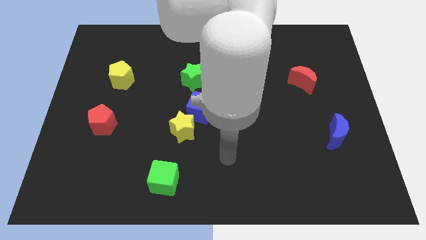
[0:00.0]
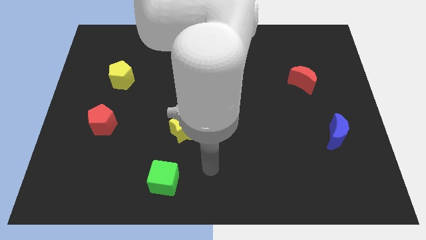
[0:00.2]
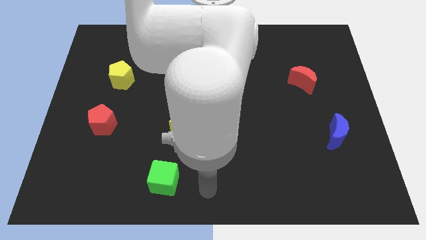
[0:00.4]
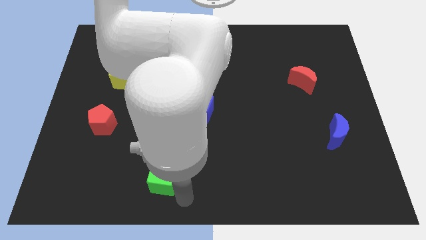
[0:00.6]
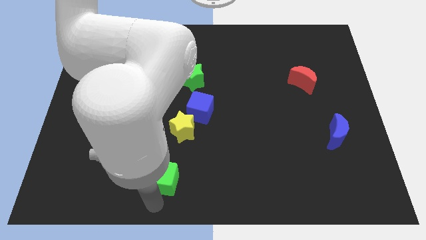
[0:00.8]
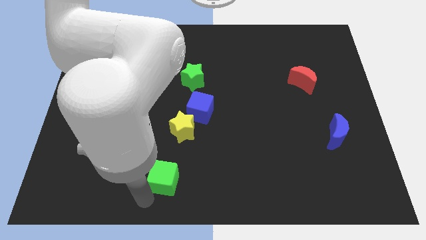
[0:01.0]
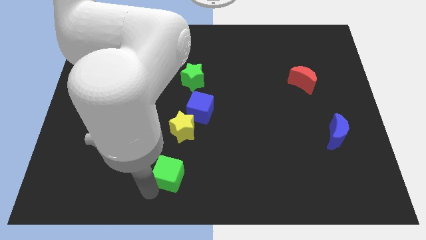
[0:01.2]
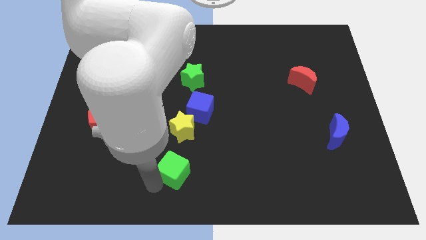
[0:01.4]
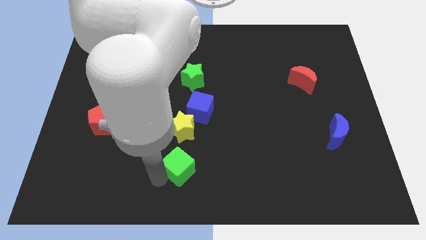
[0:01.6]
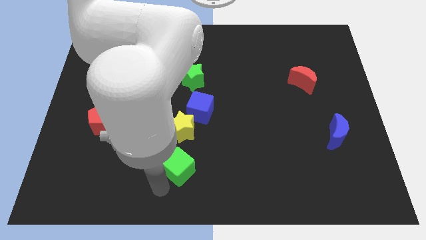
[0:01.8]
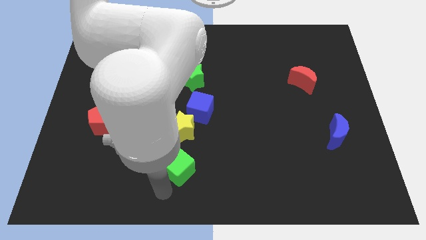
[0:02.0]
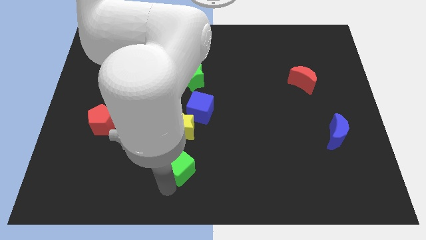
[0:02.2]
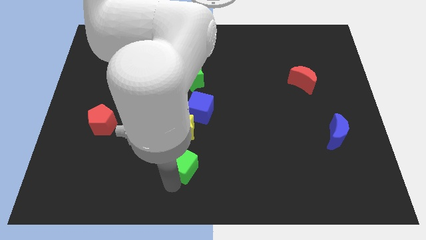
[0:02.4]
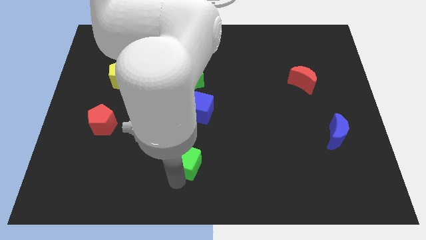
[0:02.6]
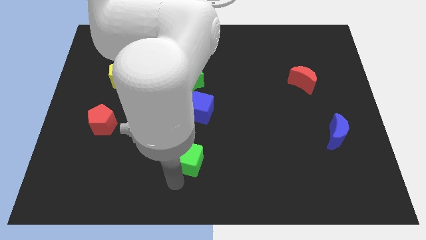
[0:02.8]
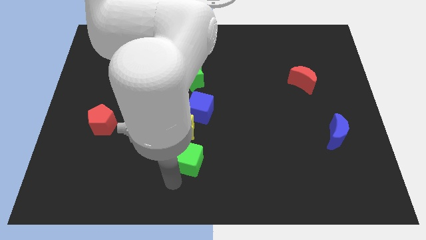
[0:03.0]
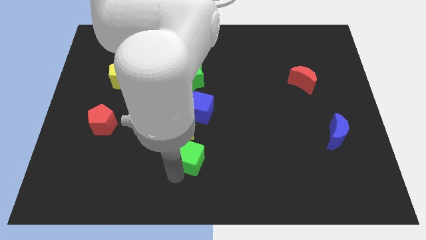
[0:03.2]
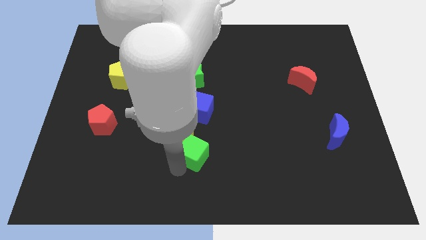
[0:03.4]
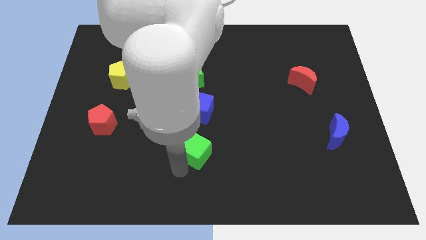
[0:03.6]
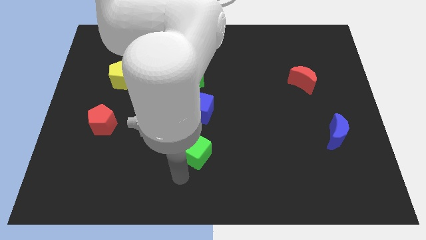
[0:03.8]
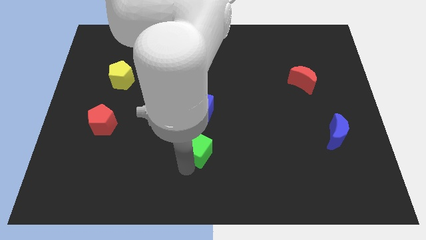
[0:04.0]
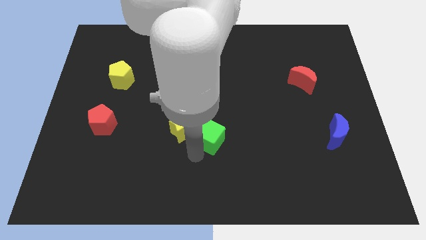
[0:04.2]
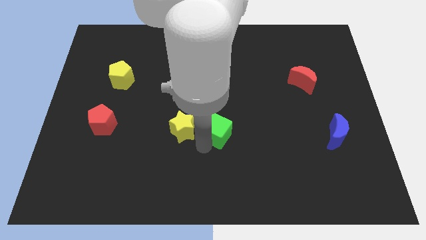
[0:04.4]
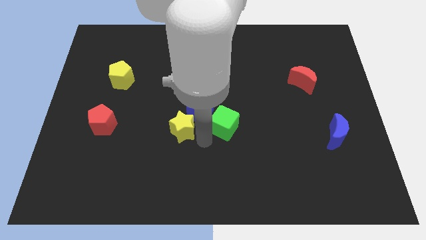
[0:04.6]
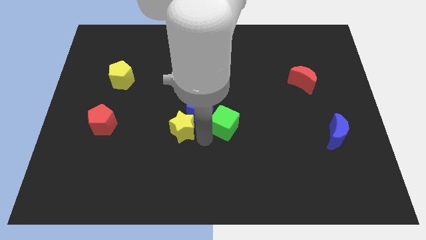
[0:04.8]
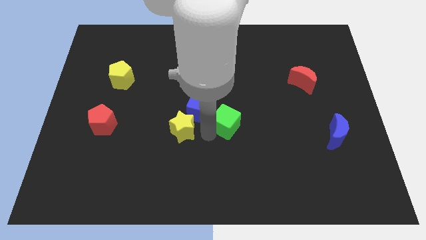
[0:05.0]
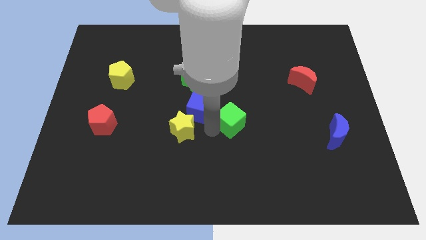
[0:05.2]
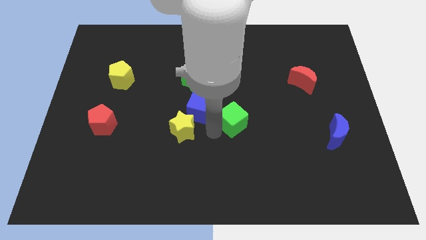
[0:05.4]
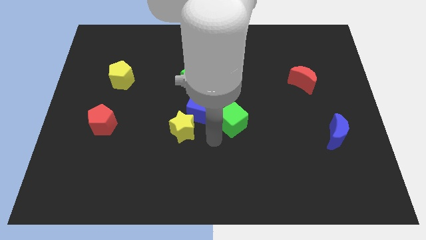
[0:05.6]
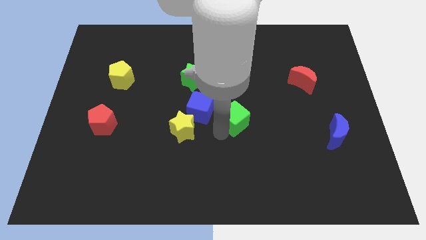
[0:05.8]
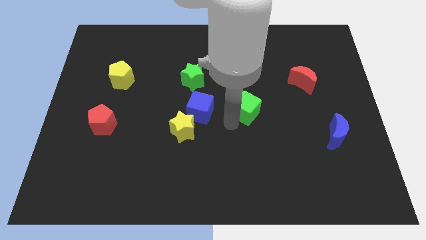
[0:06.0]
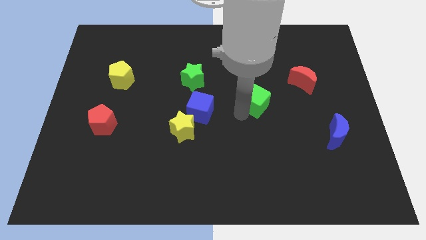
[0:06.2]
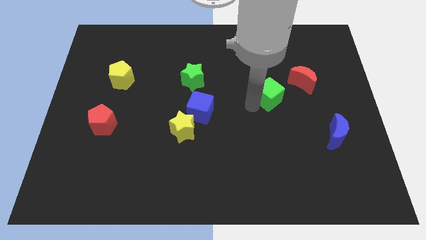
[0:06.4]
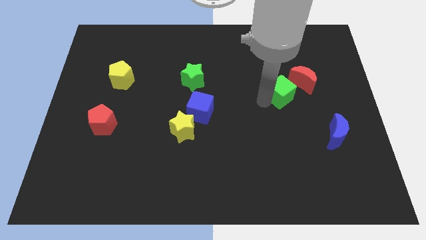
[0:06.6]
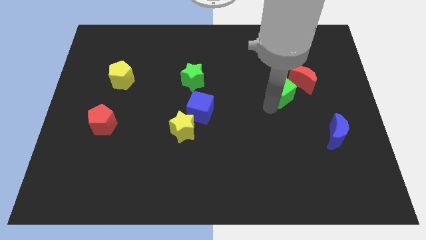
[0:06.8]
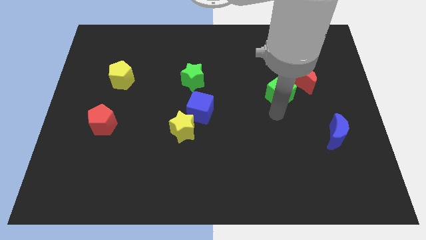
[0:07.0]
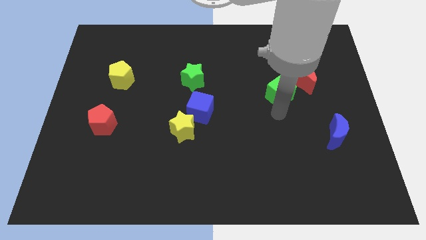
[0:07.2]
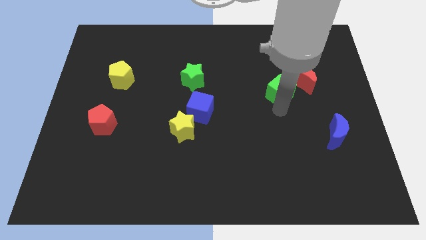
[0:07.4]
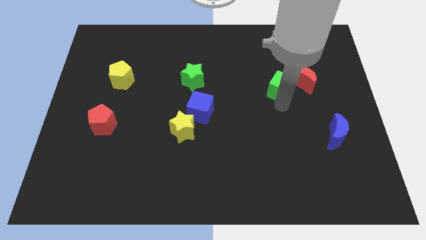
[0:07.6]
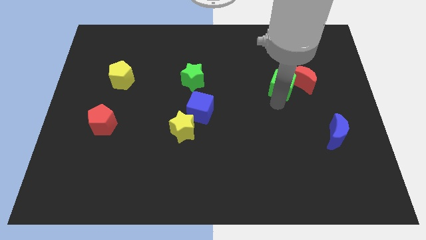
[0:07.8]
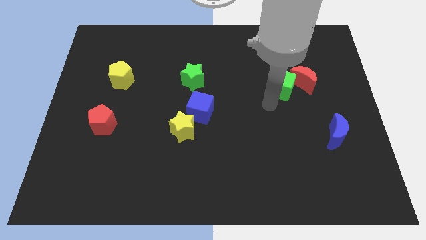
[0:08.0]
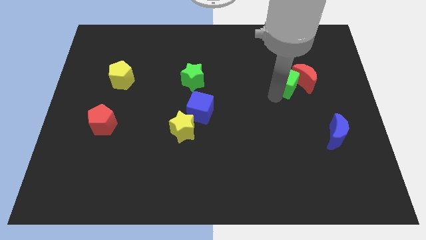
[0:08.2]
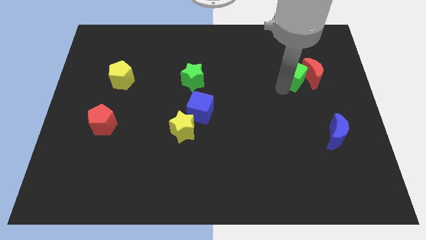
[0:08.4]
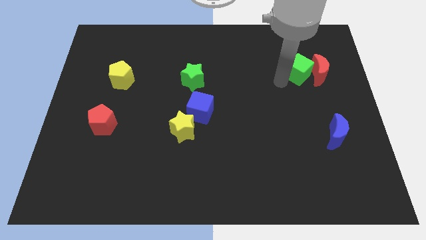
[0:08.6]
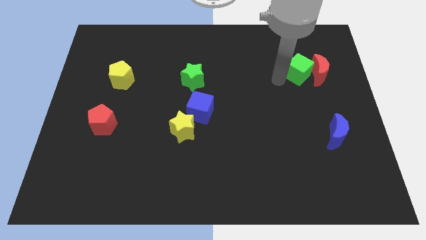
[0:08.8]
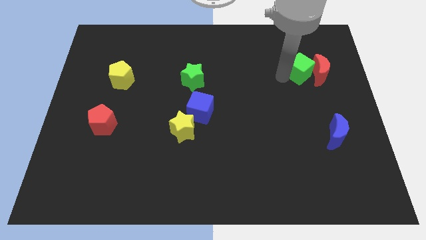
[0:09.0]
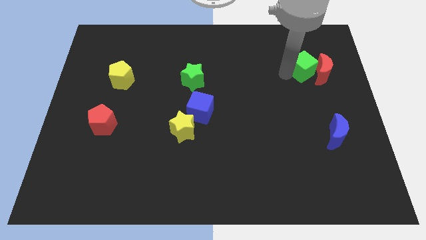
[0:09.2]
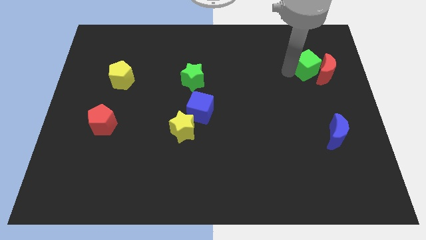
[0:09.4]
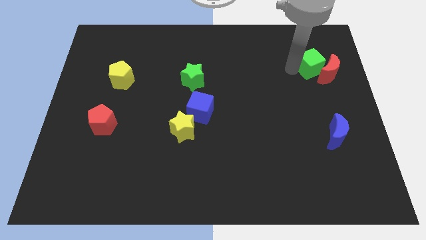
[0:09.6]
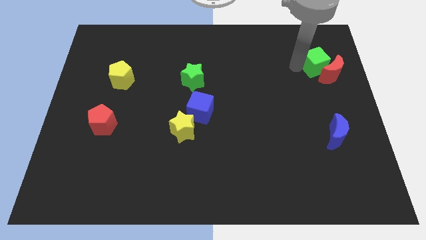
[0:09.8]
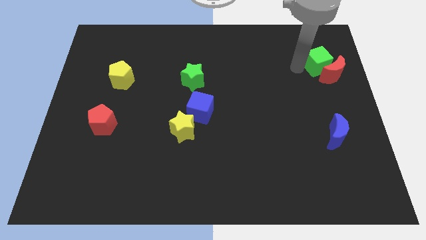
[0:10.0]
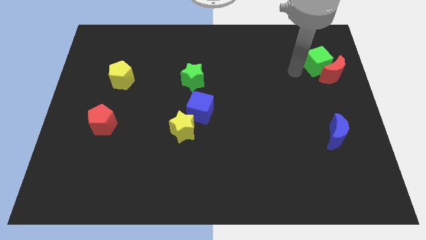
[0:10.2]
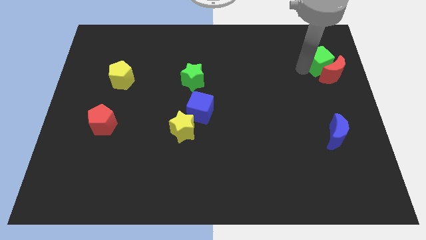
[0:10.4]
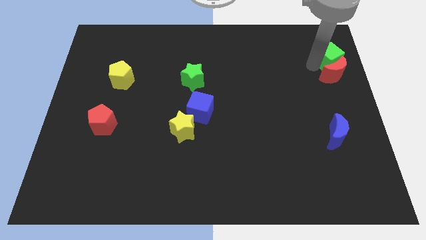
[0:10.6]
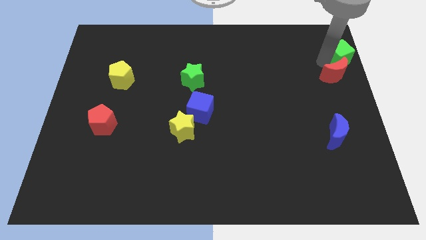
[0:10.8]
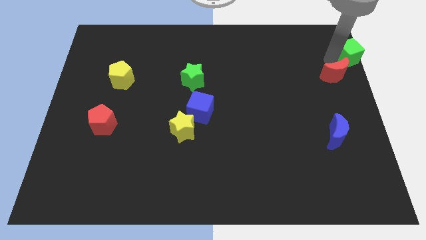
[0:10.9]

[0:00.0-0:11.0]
slide the green cube to the top right corner
